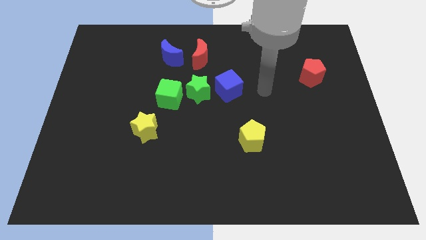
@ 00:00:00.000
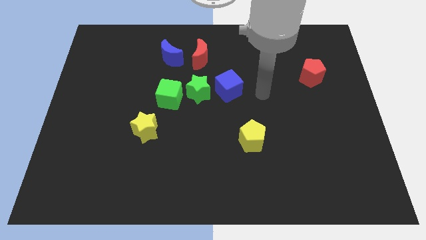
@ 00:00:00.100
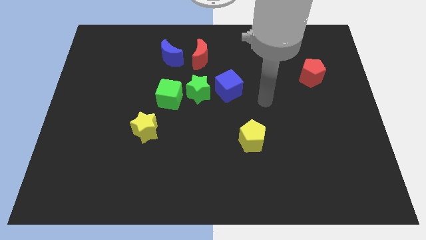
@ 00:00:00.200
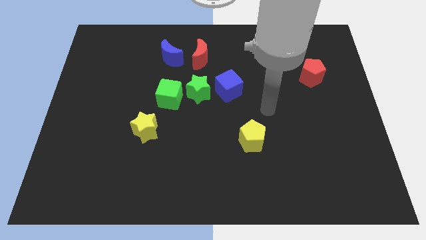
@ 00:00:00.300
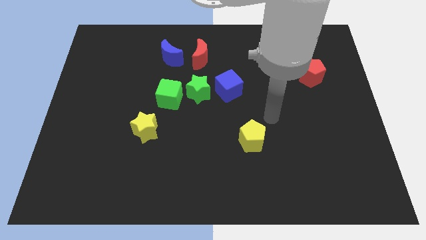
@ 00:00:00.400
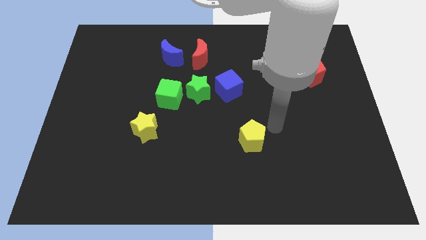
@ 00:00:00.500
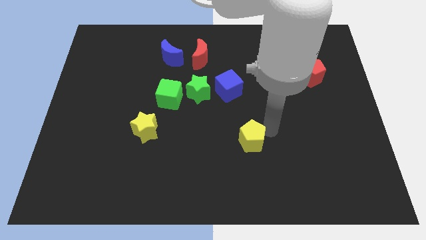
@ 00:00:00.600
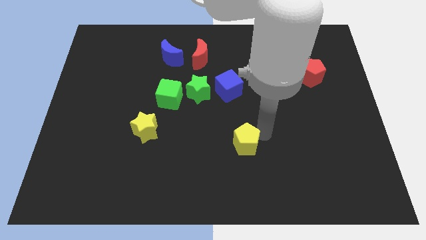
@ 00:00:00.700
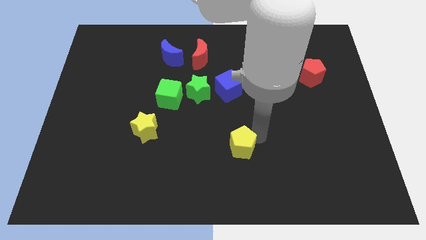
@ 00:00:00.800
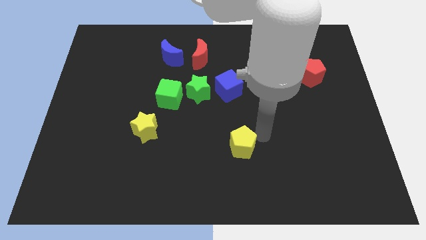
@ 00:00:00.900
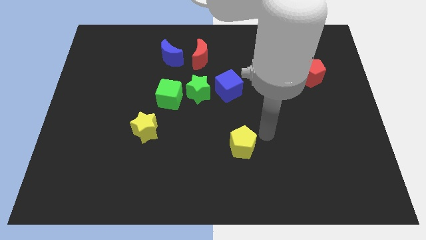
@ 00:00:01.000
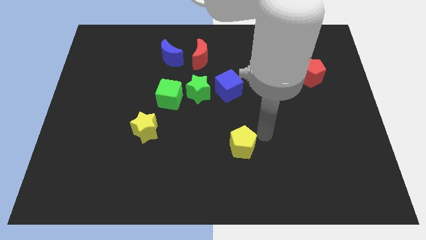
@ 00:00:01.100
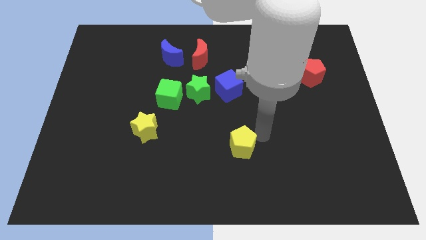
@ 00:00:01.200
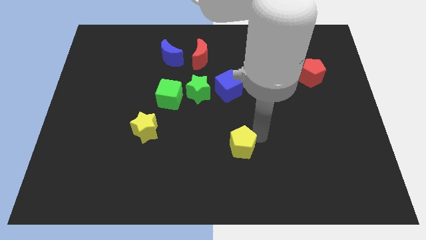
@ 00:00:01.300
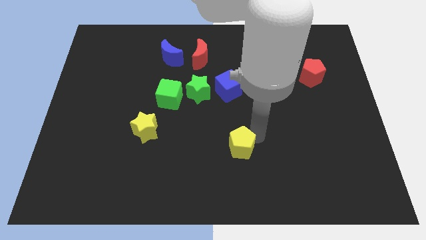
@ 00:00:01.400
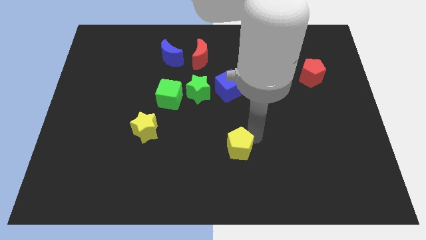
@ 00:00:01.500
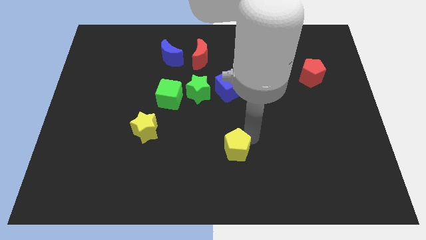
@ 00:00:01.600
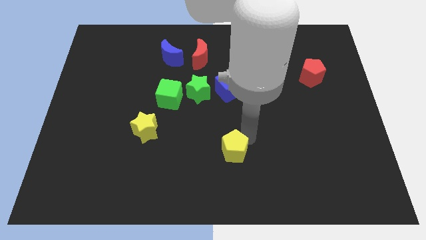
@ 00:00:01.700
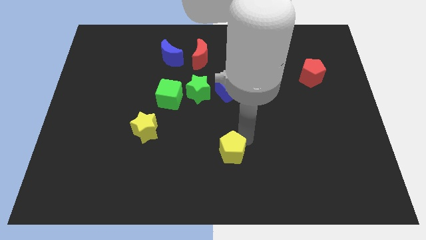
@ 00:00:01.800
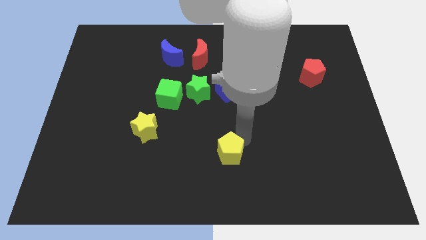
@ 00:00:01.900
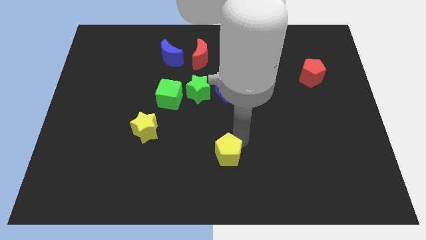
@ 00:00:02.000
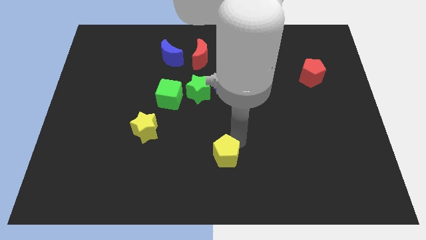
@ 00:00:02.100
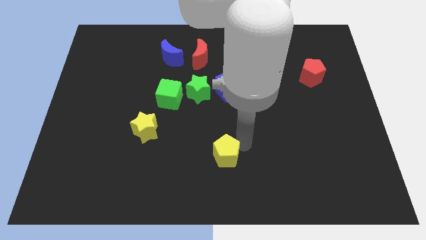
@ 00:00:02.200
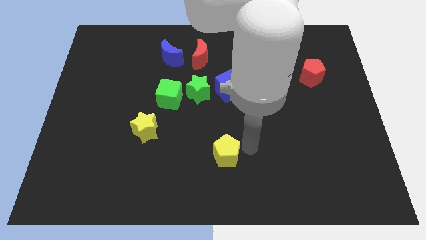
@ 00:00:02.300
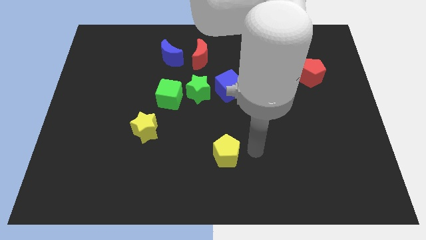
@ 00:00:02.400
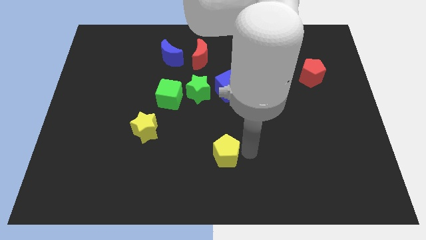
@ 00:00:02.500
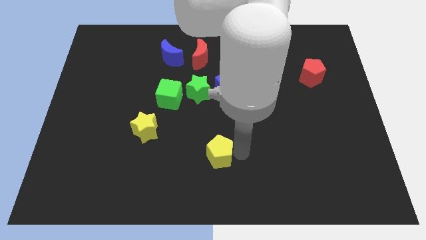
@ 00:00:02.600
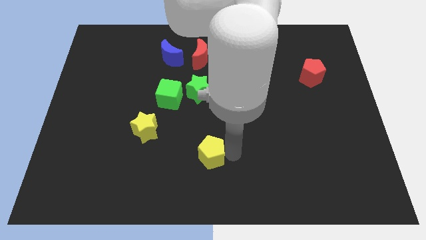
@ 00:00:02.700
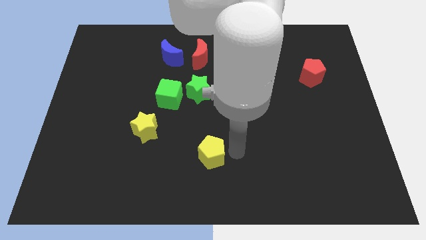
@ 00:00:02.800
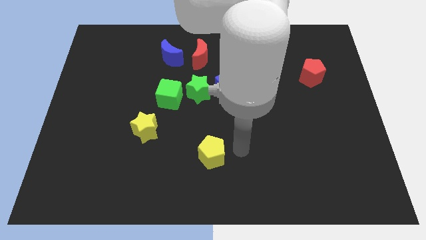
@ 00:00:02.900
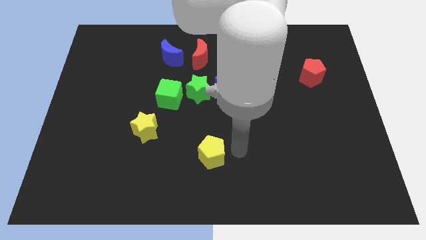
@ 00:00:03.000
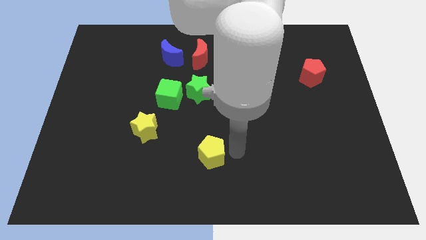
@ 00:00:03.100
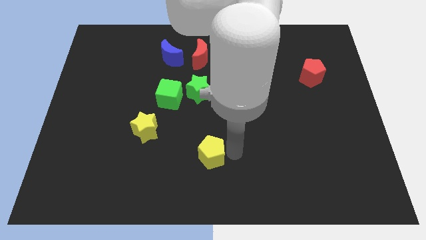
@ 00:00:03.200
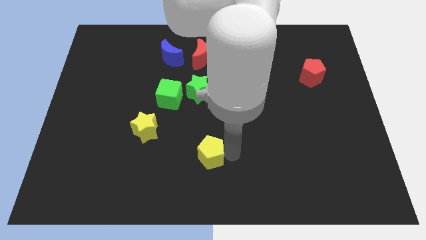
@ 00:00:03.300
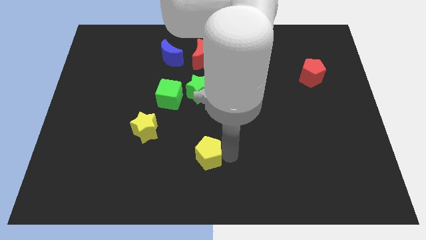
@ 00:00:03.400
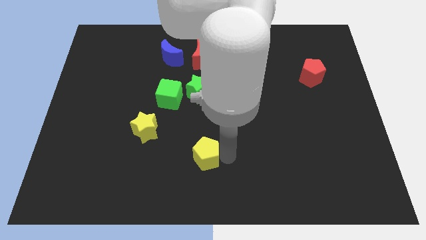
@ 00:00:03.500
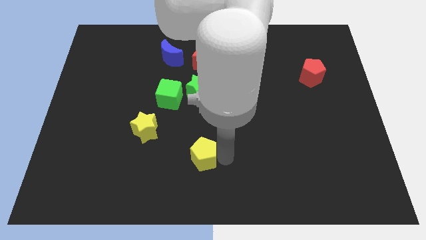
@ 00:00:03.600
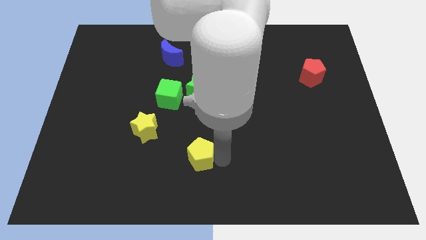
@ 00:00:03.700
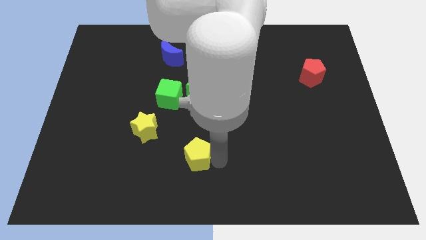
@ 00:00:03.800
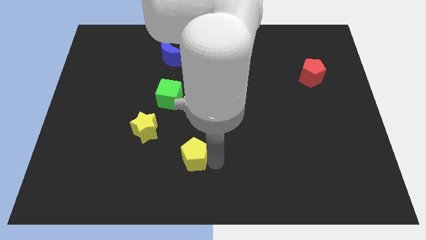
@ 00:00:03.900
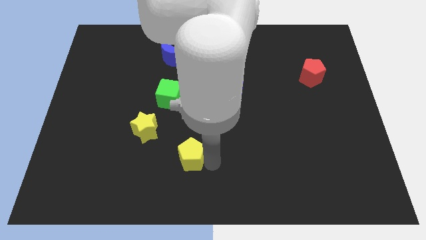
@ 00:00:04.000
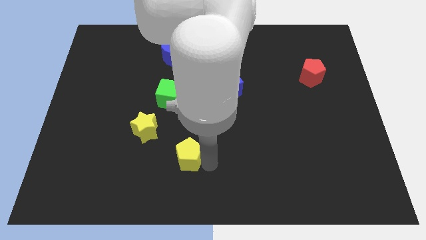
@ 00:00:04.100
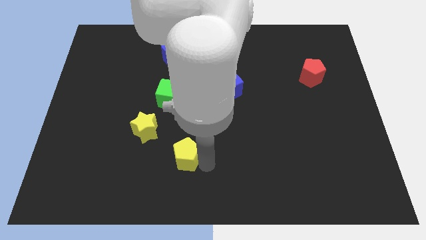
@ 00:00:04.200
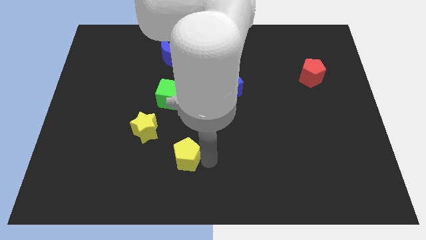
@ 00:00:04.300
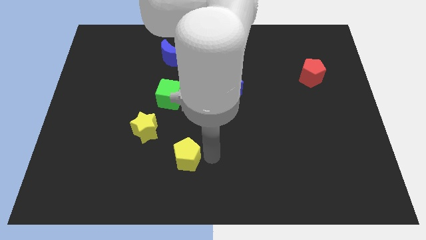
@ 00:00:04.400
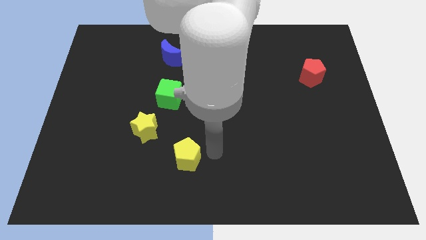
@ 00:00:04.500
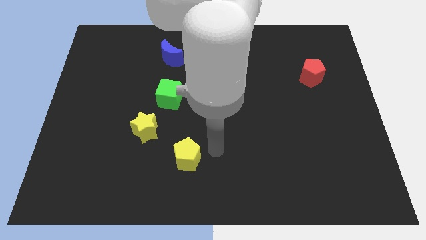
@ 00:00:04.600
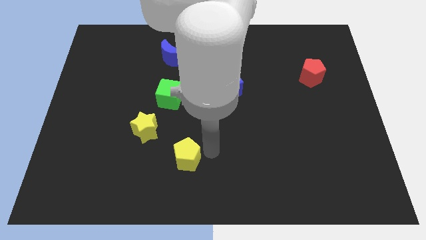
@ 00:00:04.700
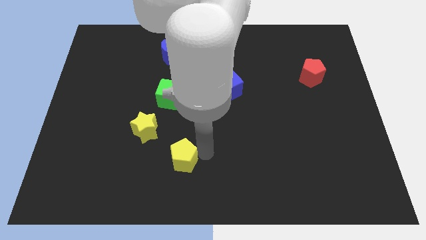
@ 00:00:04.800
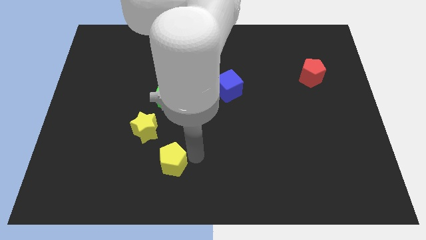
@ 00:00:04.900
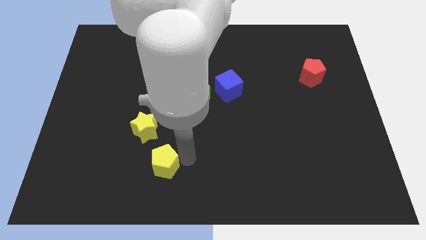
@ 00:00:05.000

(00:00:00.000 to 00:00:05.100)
move the yellow pentagon to the bottom side of the yellow star

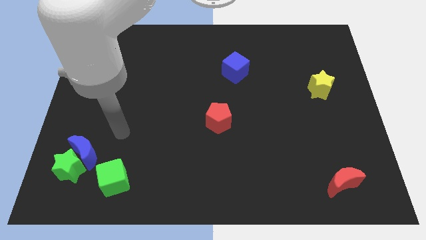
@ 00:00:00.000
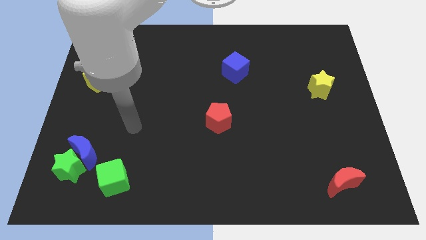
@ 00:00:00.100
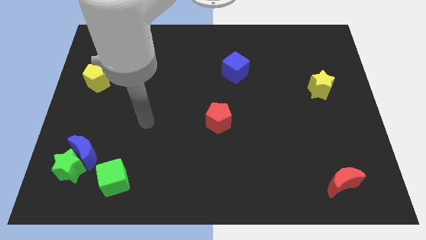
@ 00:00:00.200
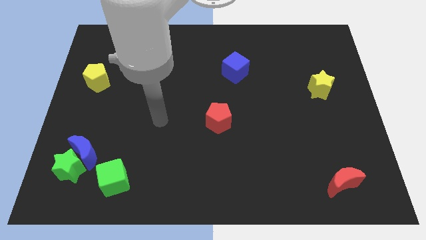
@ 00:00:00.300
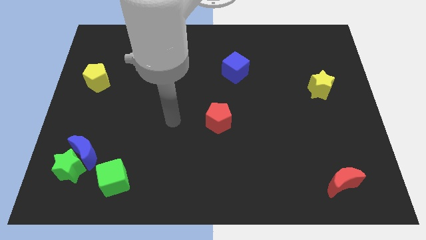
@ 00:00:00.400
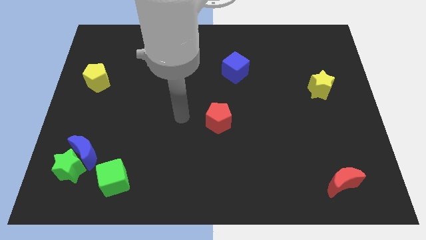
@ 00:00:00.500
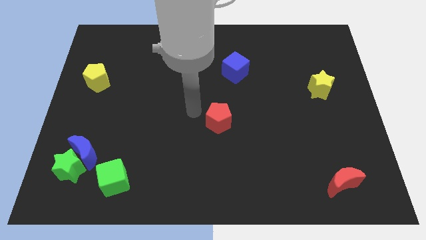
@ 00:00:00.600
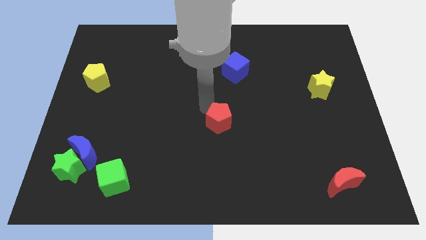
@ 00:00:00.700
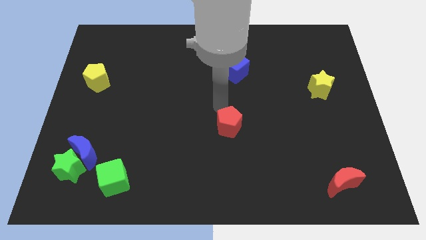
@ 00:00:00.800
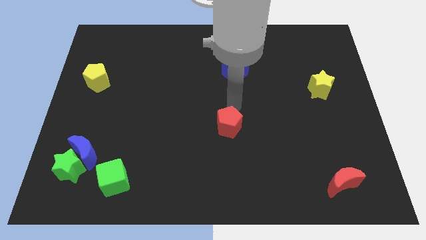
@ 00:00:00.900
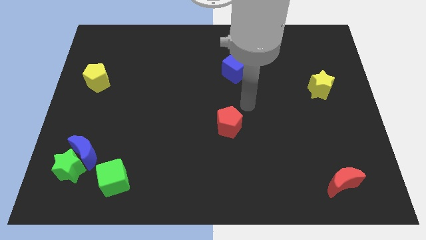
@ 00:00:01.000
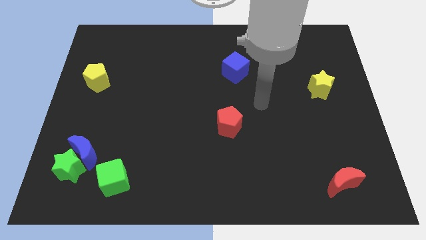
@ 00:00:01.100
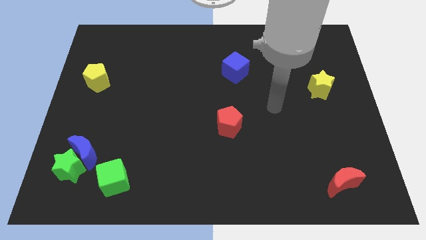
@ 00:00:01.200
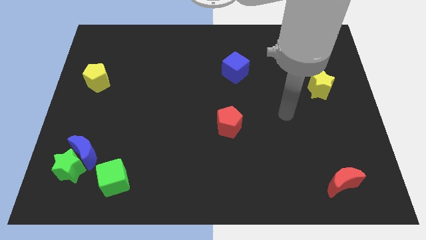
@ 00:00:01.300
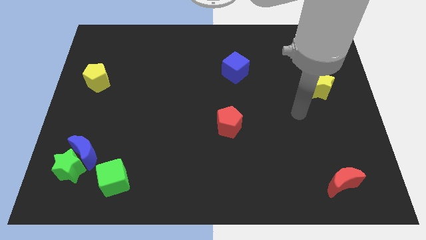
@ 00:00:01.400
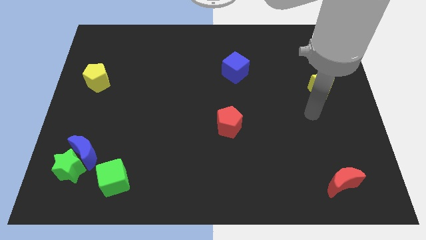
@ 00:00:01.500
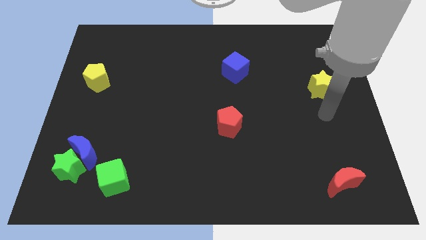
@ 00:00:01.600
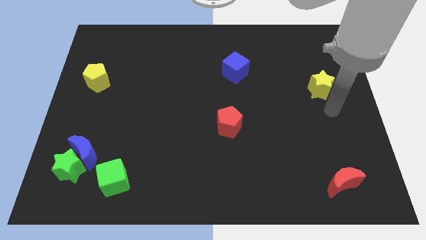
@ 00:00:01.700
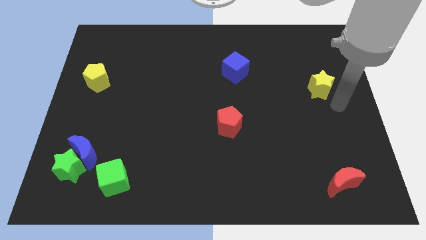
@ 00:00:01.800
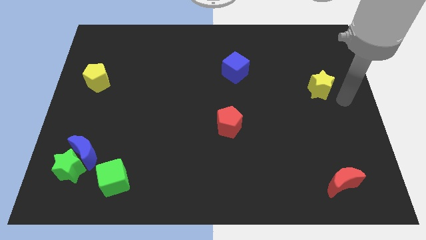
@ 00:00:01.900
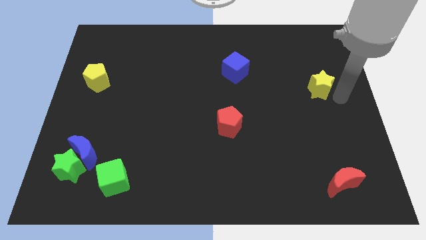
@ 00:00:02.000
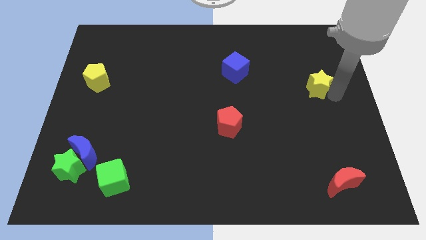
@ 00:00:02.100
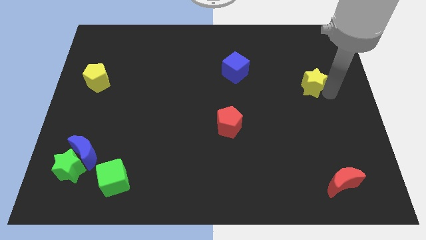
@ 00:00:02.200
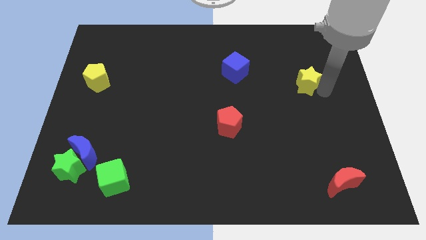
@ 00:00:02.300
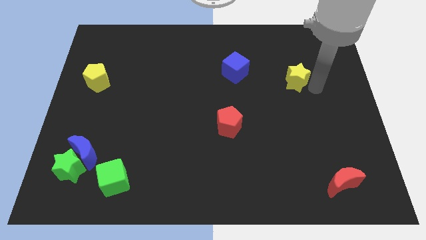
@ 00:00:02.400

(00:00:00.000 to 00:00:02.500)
push the yellow star to the right of the blue cube

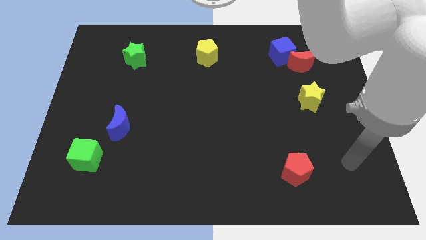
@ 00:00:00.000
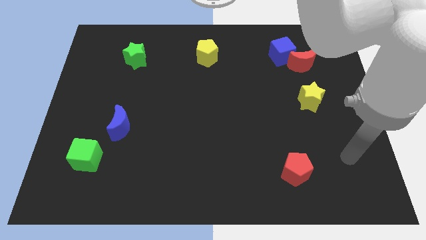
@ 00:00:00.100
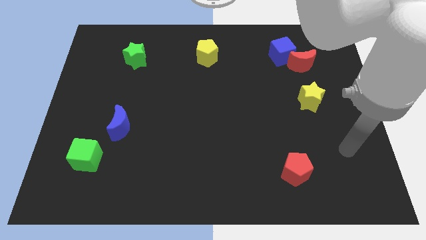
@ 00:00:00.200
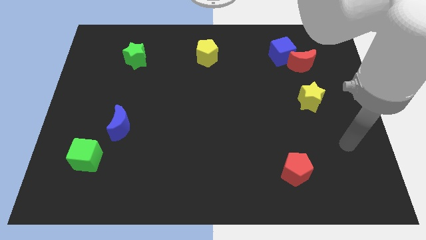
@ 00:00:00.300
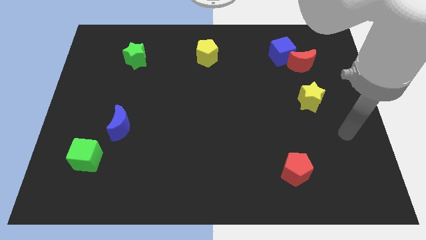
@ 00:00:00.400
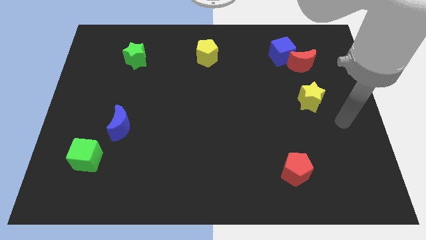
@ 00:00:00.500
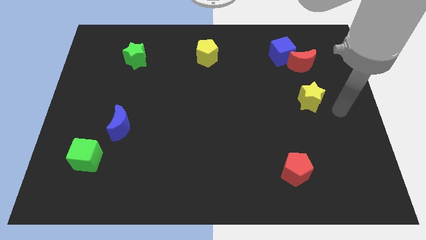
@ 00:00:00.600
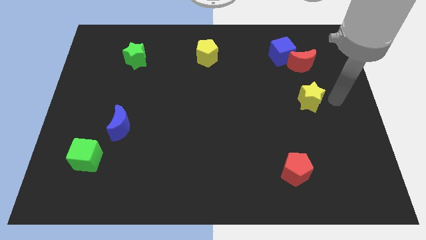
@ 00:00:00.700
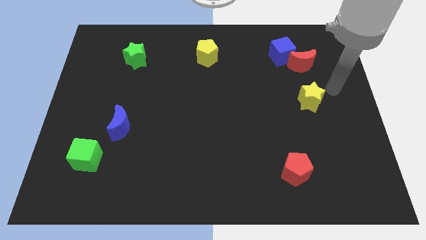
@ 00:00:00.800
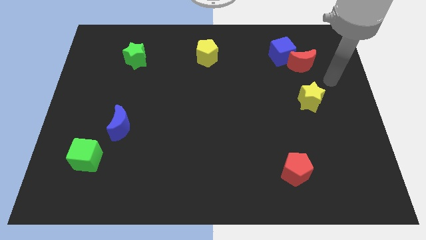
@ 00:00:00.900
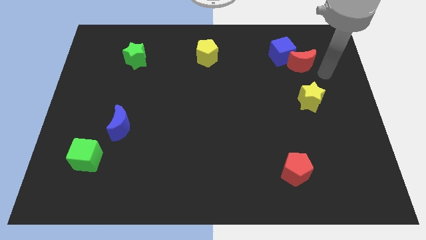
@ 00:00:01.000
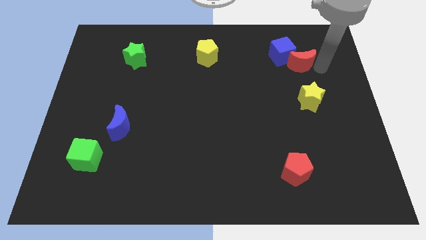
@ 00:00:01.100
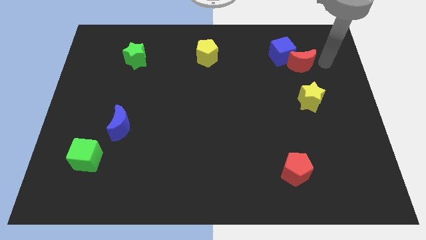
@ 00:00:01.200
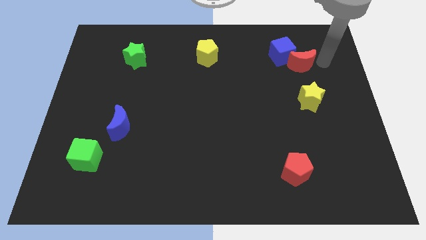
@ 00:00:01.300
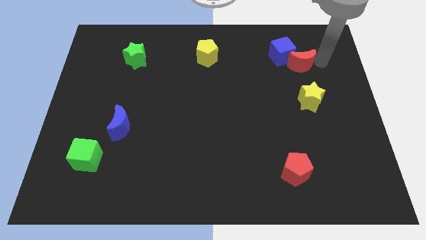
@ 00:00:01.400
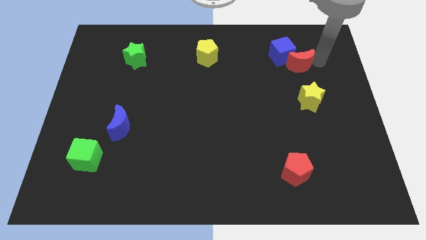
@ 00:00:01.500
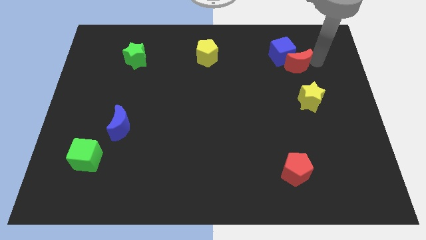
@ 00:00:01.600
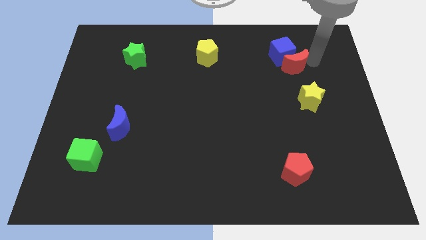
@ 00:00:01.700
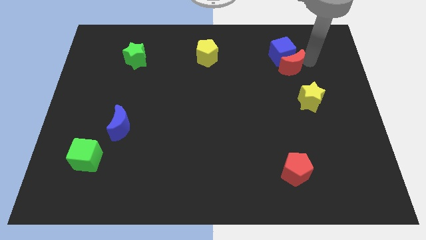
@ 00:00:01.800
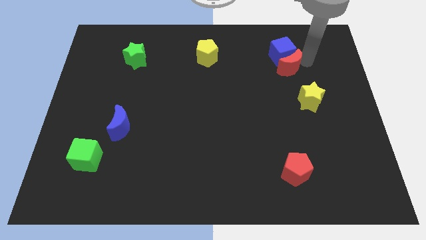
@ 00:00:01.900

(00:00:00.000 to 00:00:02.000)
slide the red moon to the bottom left side of the blue cube
